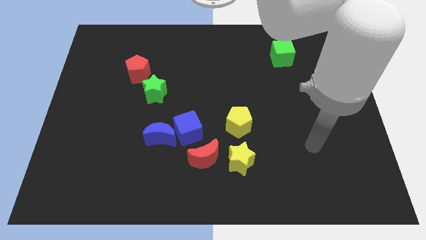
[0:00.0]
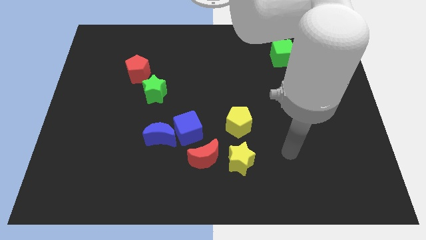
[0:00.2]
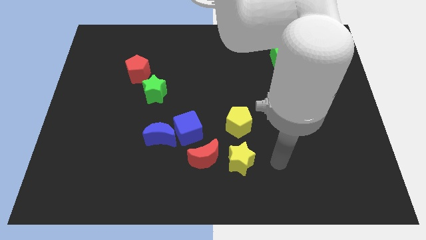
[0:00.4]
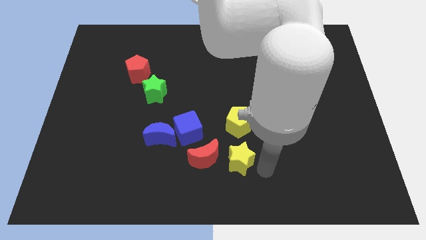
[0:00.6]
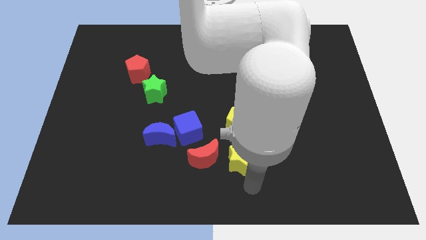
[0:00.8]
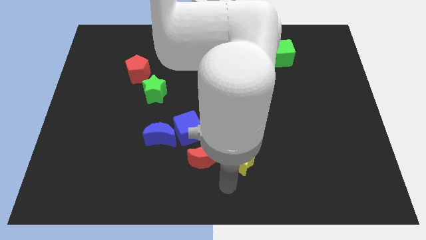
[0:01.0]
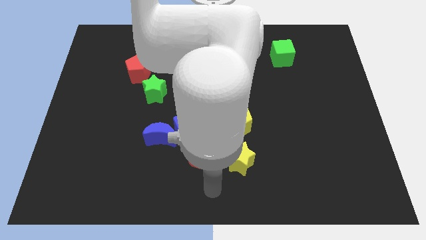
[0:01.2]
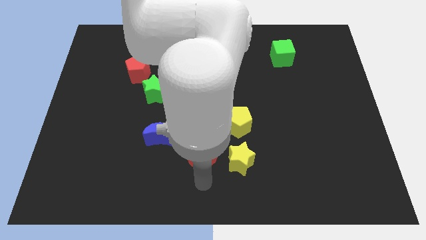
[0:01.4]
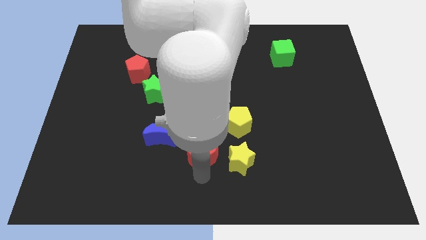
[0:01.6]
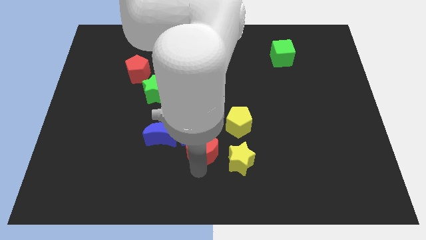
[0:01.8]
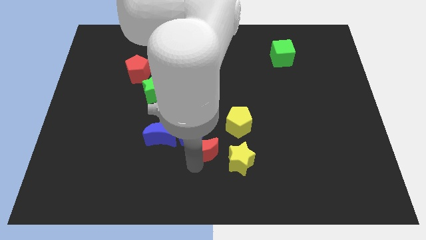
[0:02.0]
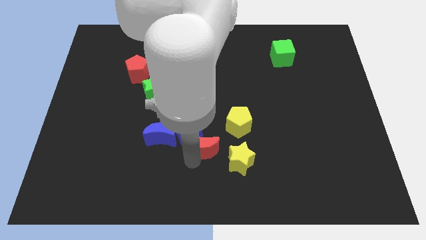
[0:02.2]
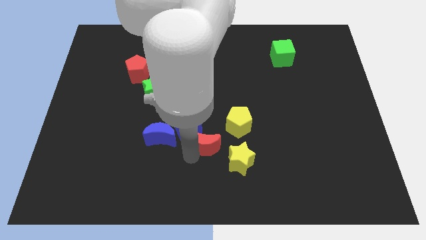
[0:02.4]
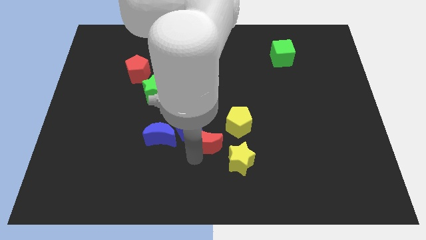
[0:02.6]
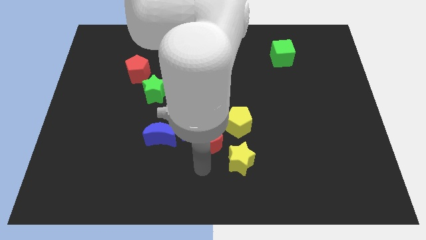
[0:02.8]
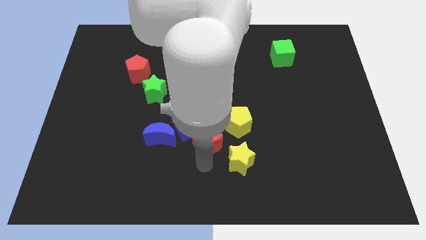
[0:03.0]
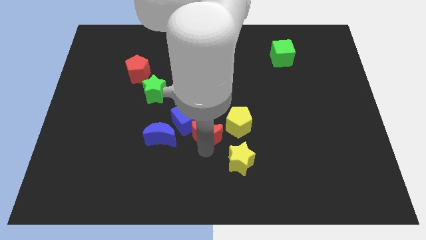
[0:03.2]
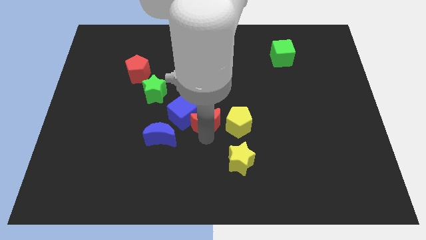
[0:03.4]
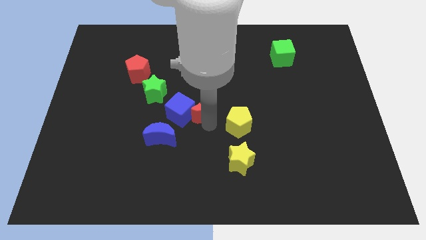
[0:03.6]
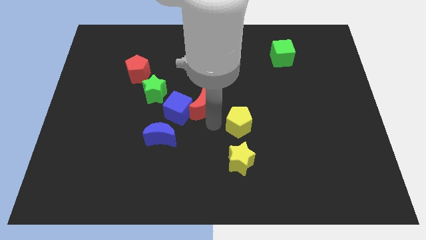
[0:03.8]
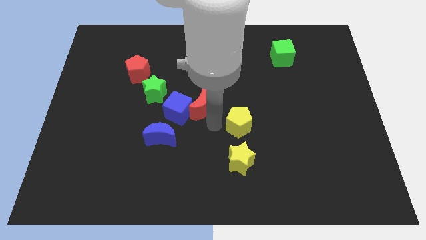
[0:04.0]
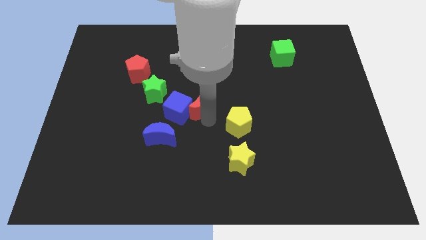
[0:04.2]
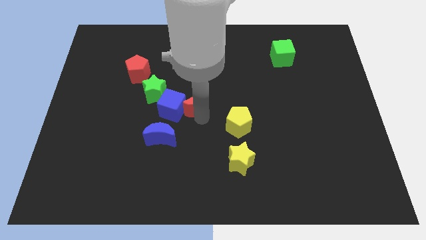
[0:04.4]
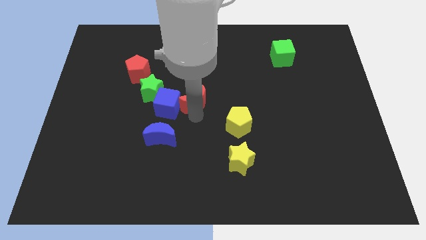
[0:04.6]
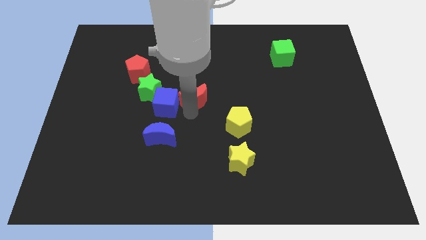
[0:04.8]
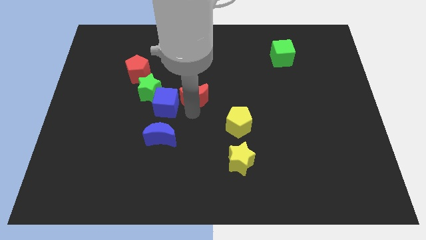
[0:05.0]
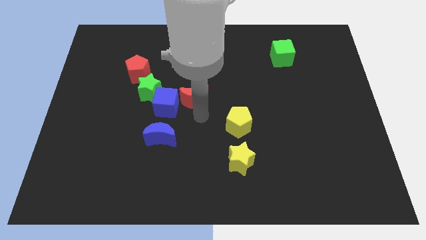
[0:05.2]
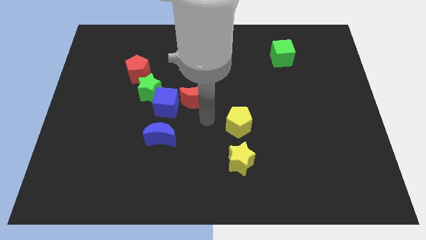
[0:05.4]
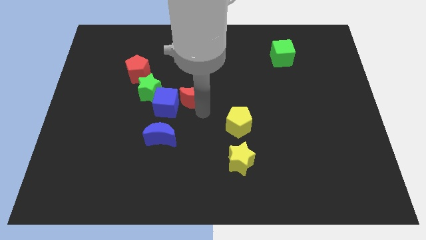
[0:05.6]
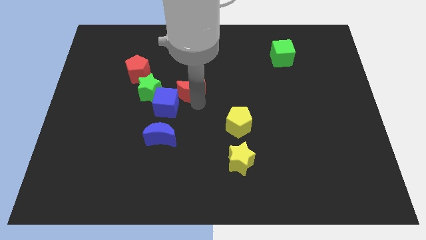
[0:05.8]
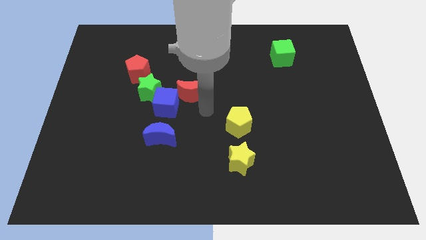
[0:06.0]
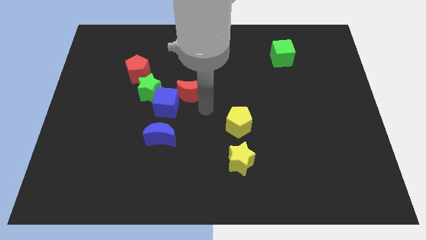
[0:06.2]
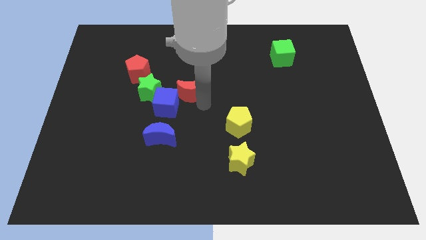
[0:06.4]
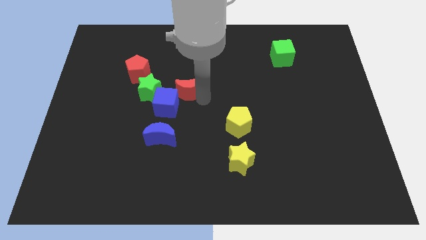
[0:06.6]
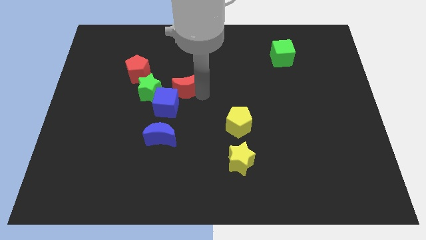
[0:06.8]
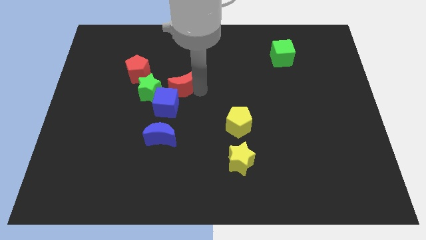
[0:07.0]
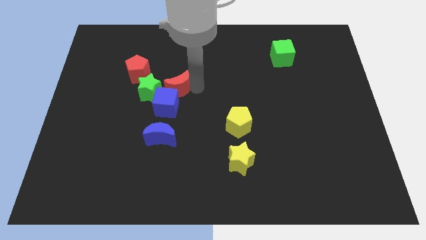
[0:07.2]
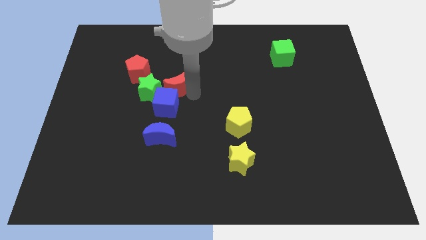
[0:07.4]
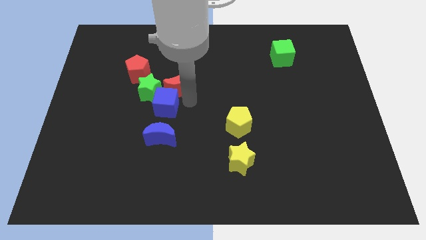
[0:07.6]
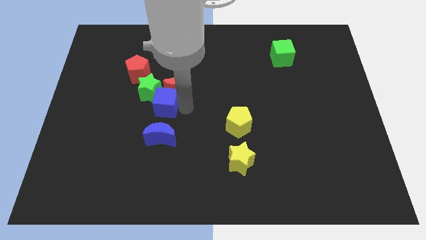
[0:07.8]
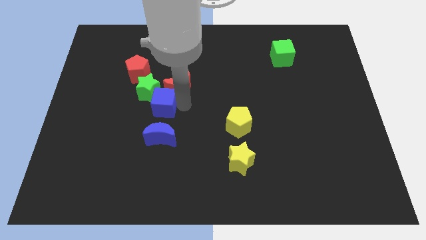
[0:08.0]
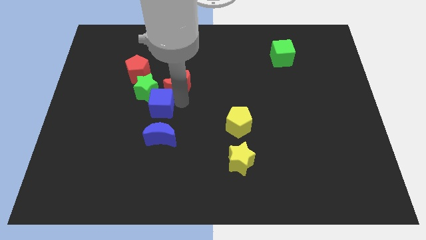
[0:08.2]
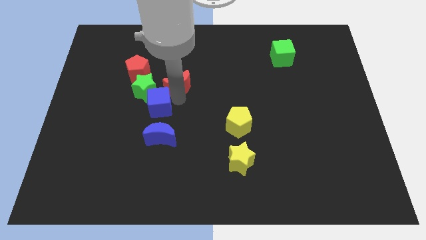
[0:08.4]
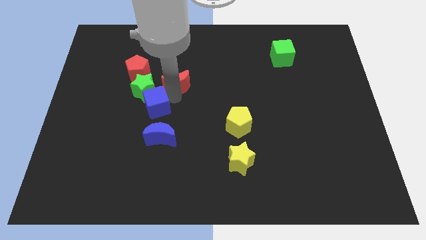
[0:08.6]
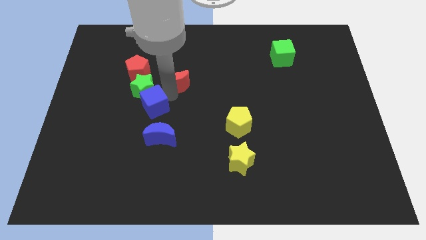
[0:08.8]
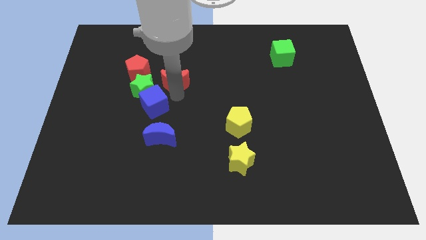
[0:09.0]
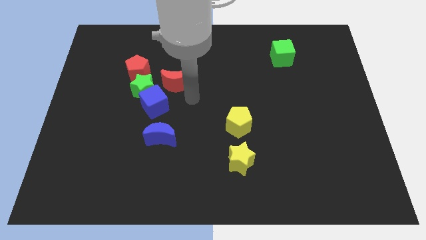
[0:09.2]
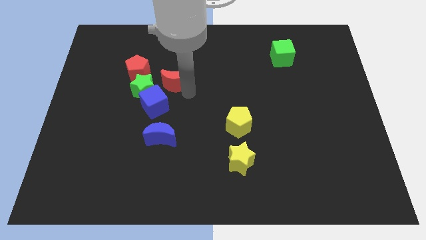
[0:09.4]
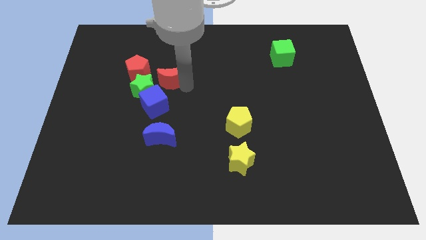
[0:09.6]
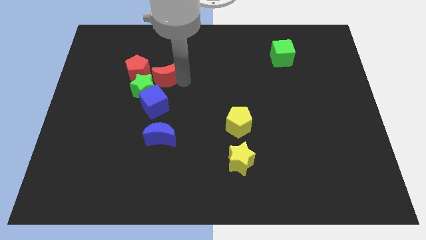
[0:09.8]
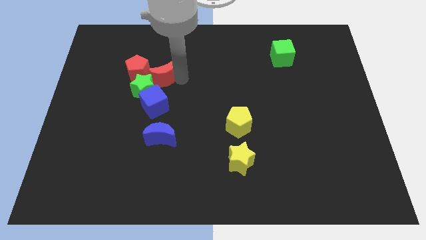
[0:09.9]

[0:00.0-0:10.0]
move the red moon to the top of the green star

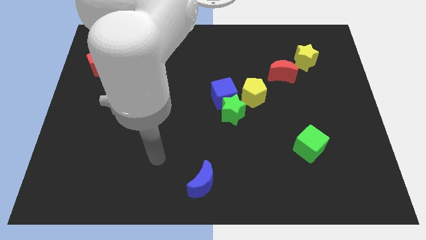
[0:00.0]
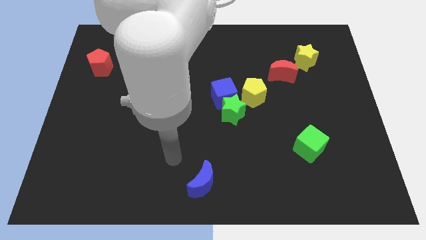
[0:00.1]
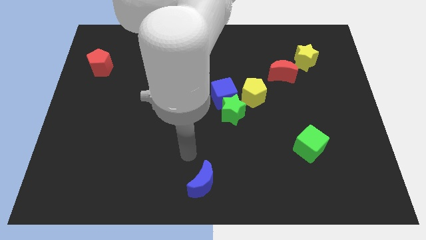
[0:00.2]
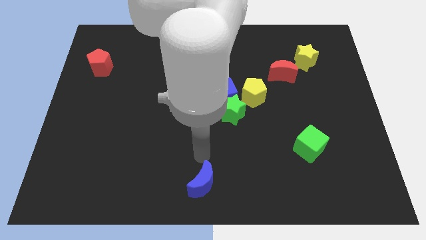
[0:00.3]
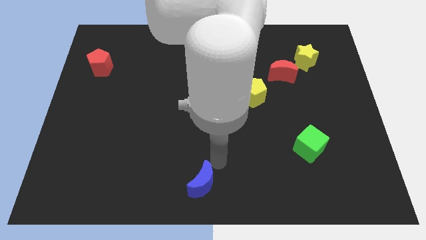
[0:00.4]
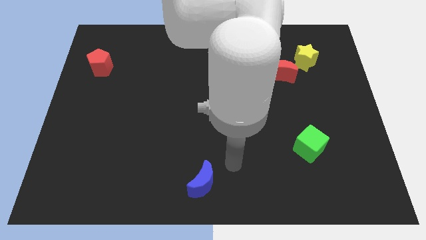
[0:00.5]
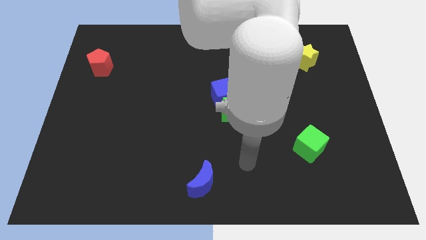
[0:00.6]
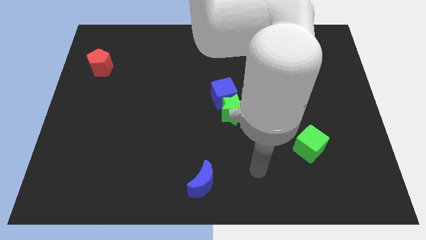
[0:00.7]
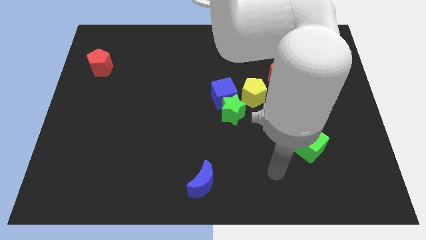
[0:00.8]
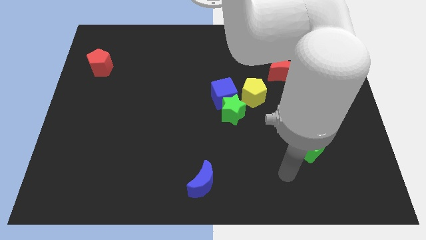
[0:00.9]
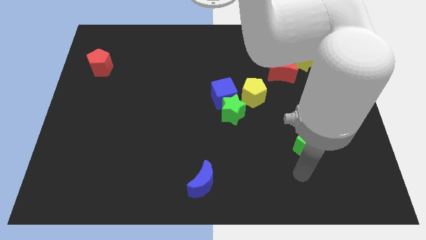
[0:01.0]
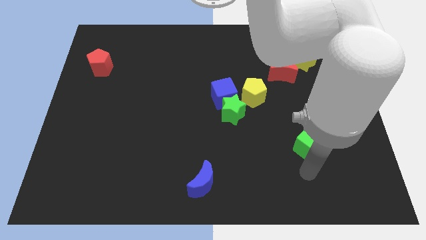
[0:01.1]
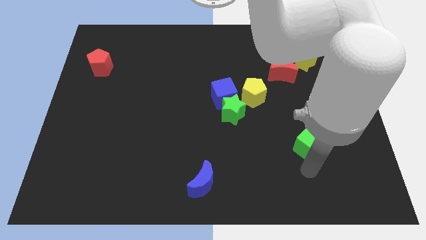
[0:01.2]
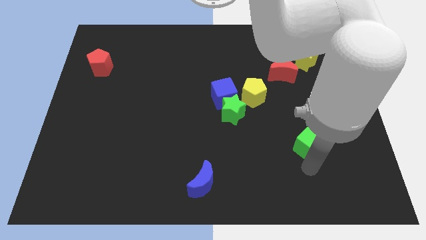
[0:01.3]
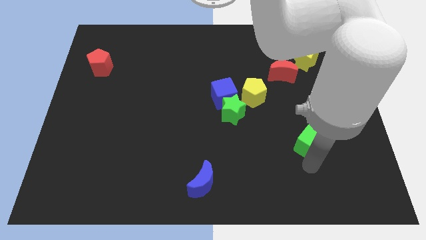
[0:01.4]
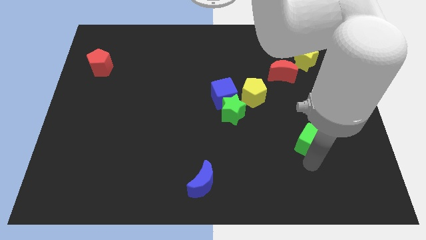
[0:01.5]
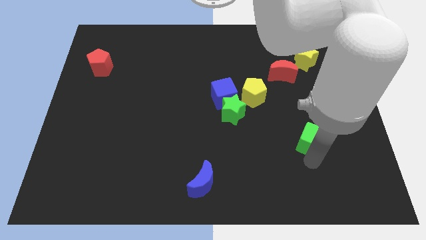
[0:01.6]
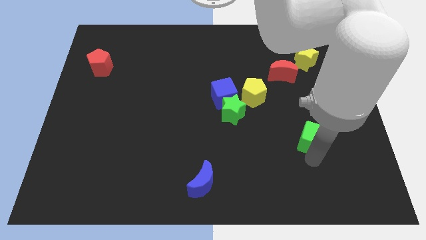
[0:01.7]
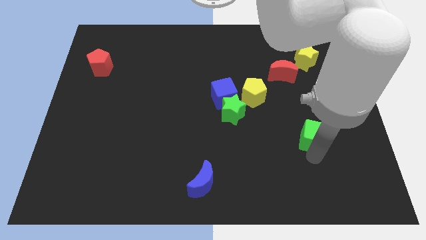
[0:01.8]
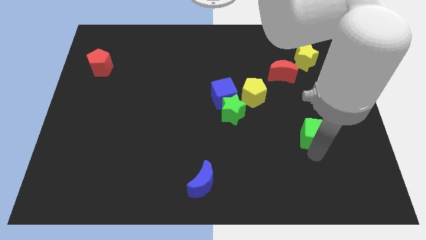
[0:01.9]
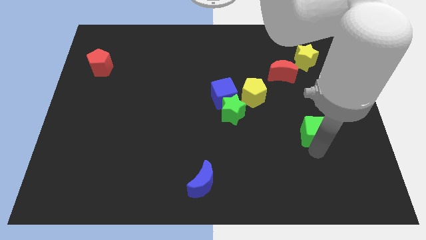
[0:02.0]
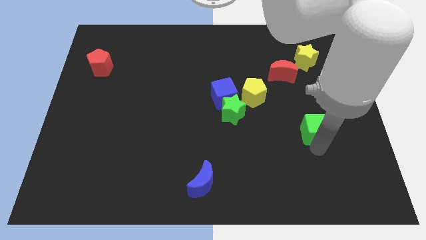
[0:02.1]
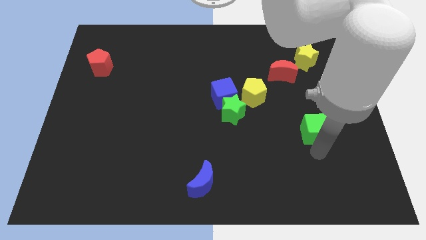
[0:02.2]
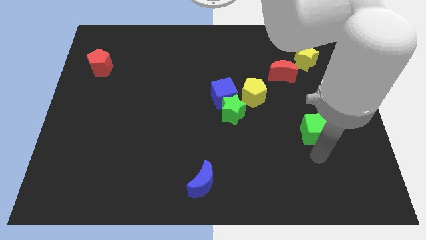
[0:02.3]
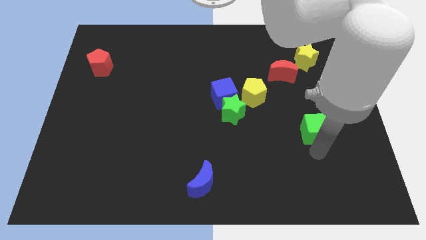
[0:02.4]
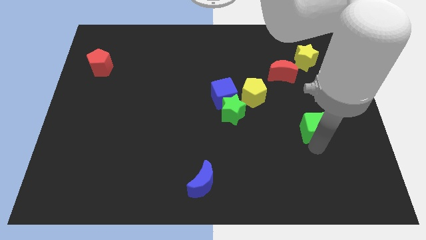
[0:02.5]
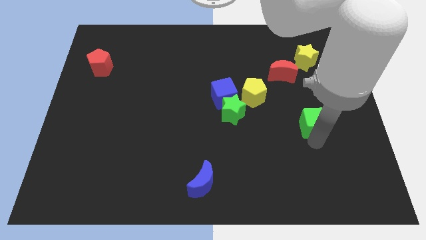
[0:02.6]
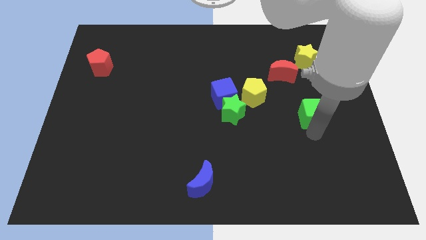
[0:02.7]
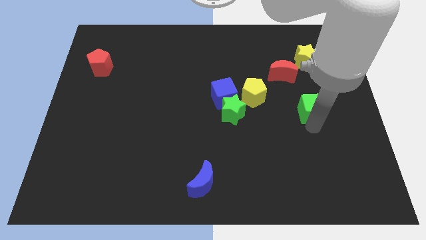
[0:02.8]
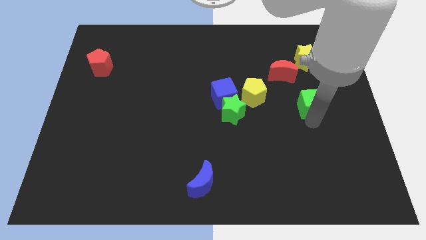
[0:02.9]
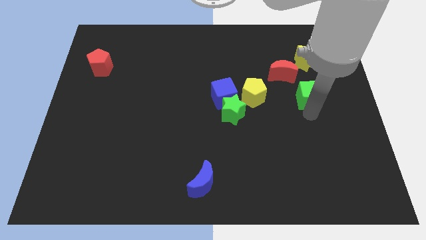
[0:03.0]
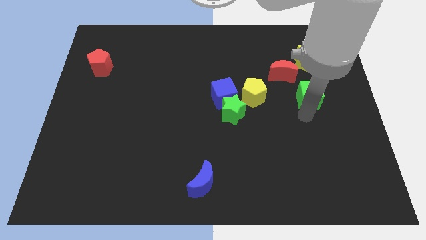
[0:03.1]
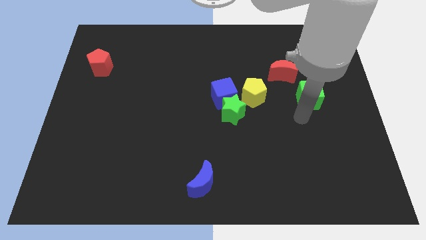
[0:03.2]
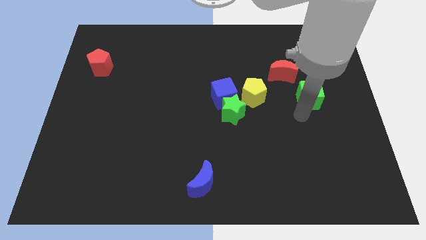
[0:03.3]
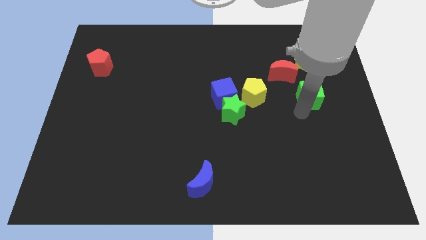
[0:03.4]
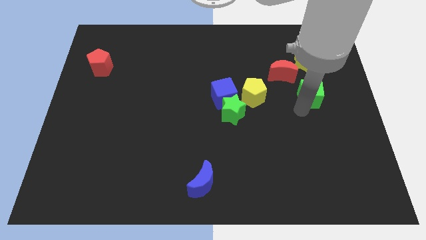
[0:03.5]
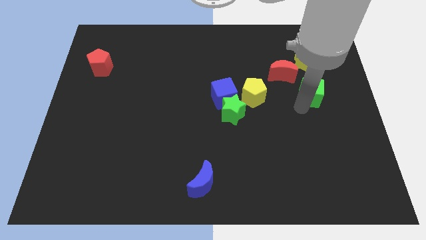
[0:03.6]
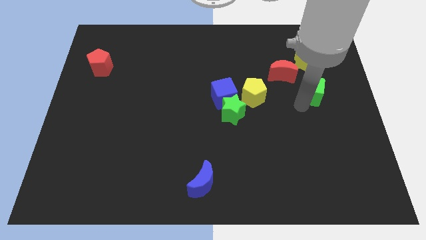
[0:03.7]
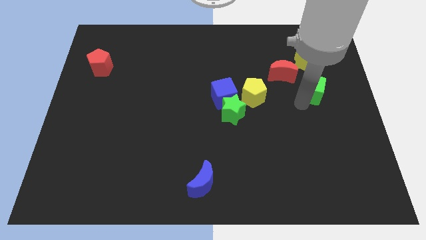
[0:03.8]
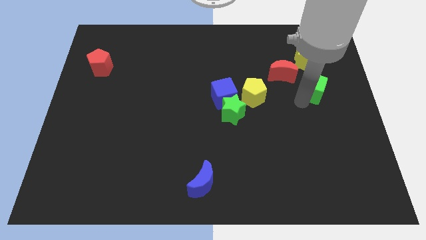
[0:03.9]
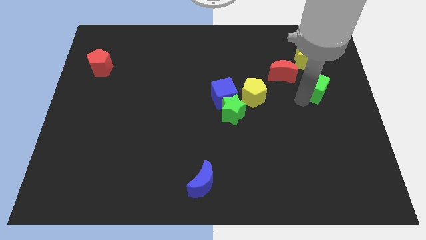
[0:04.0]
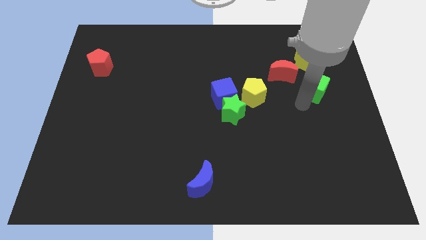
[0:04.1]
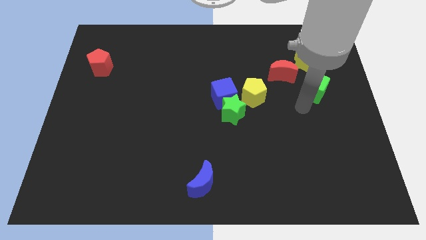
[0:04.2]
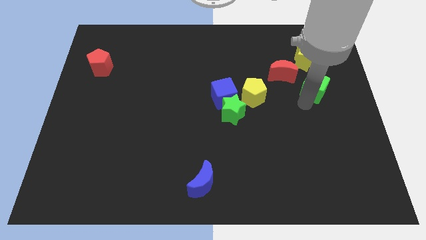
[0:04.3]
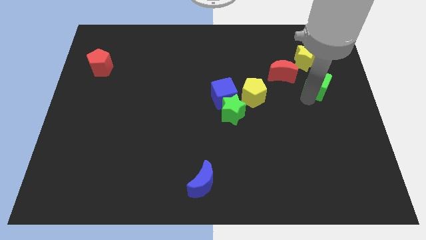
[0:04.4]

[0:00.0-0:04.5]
slide the green cube just right of the red moon
